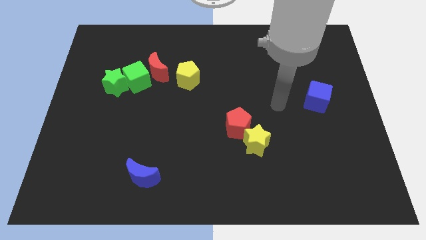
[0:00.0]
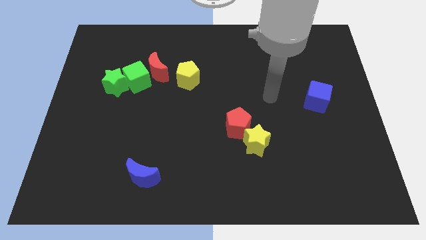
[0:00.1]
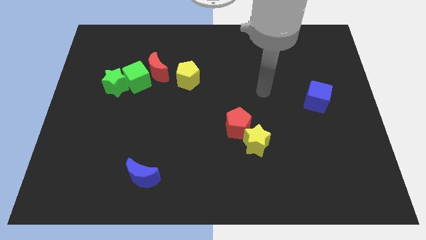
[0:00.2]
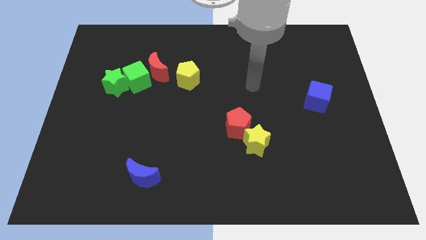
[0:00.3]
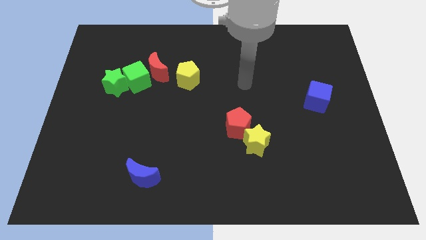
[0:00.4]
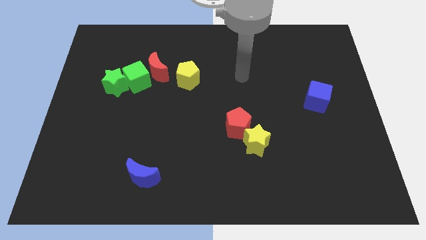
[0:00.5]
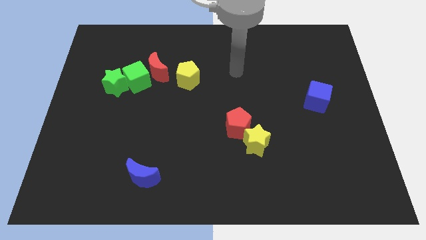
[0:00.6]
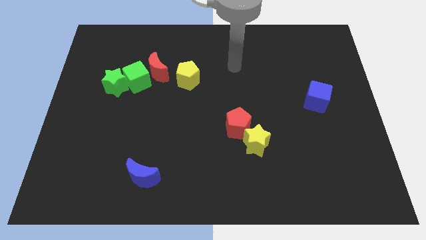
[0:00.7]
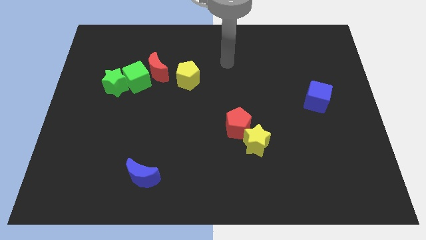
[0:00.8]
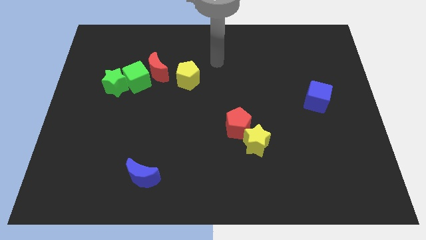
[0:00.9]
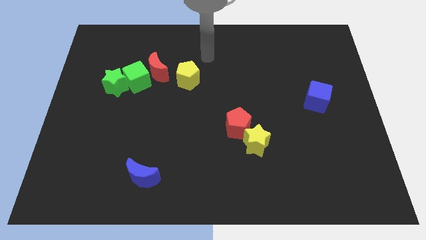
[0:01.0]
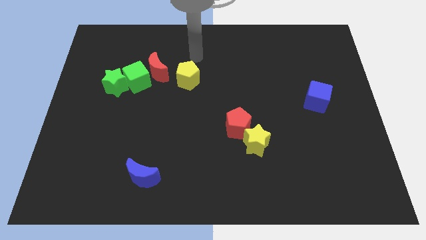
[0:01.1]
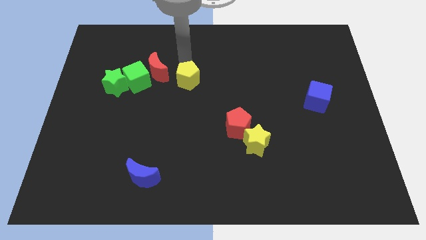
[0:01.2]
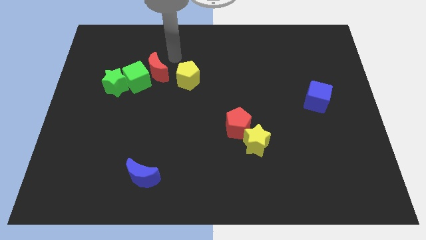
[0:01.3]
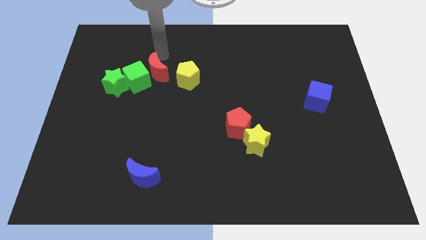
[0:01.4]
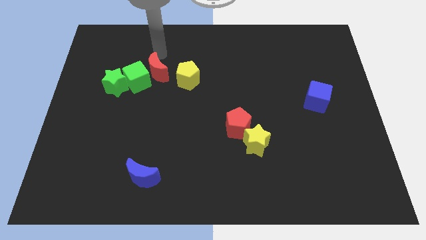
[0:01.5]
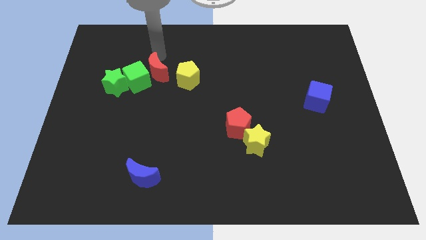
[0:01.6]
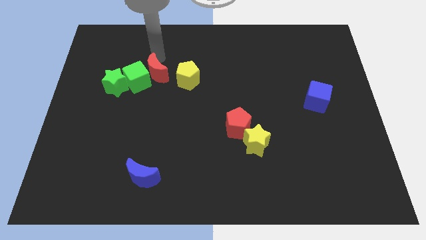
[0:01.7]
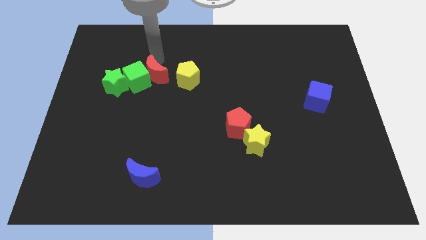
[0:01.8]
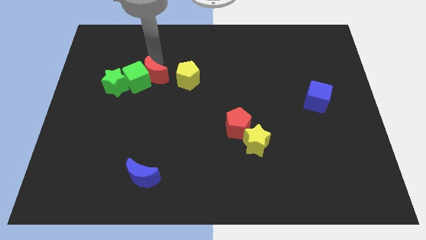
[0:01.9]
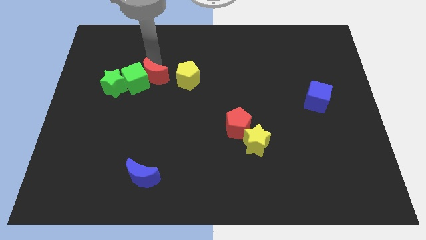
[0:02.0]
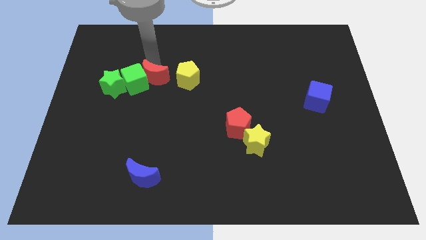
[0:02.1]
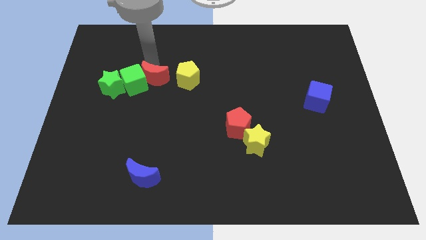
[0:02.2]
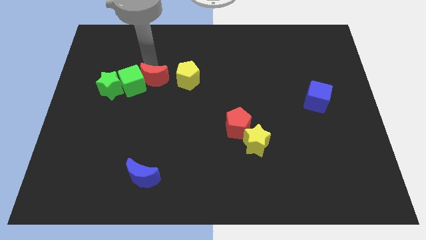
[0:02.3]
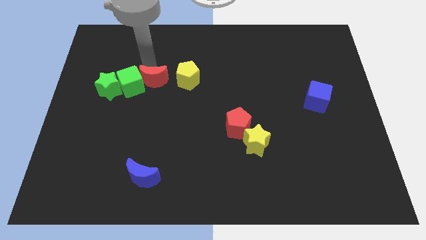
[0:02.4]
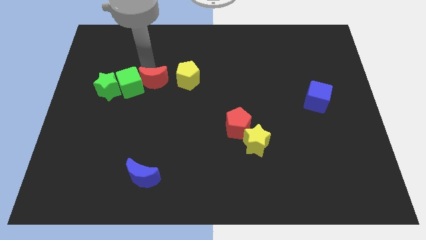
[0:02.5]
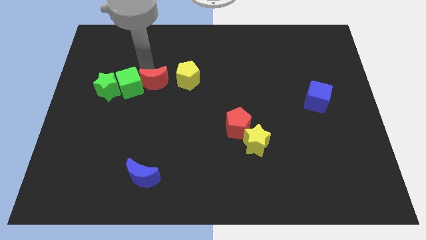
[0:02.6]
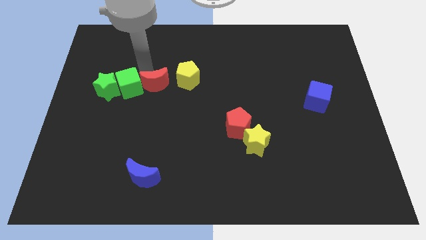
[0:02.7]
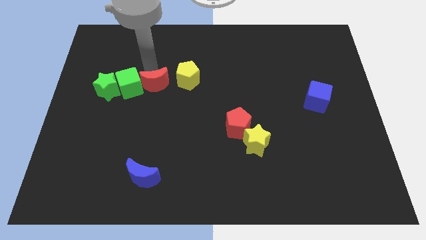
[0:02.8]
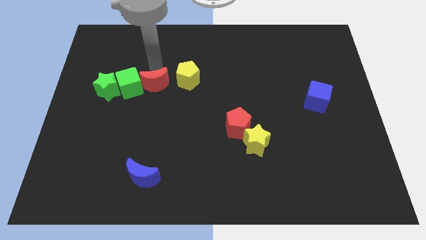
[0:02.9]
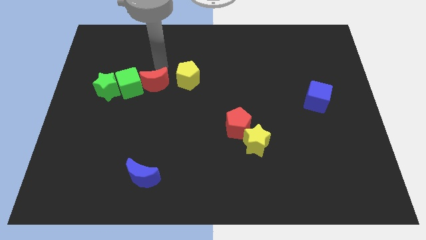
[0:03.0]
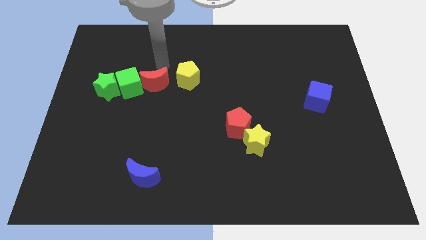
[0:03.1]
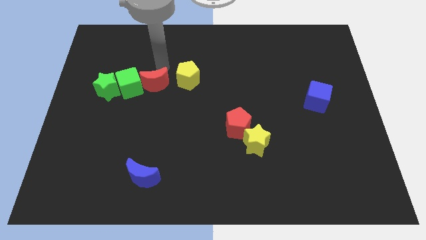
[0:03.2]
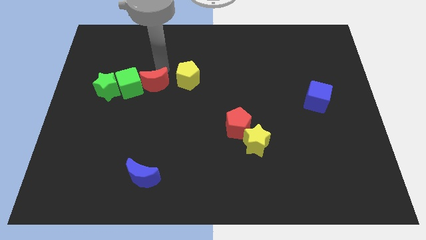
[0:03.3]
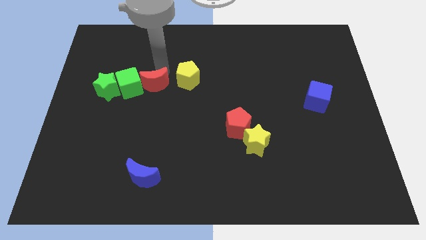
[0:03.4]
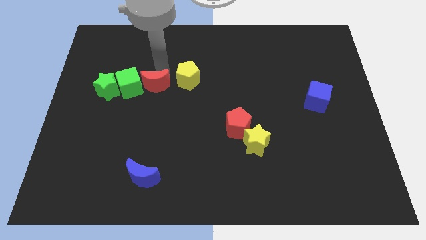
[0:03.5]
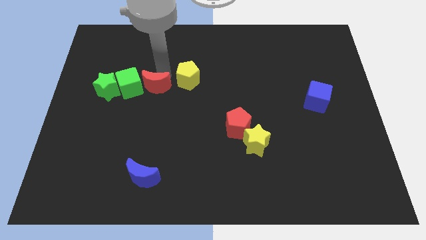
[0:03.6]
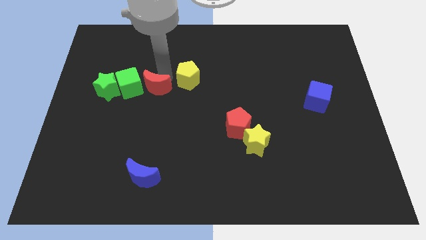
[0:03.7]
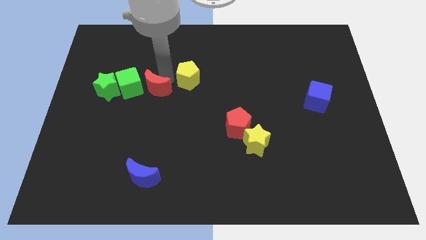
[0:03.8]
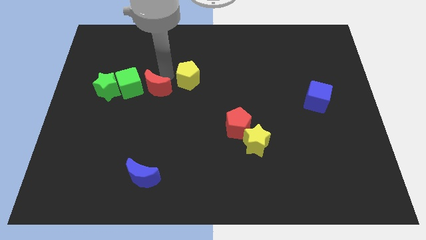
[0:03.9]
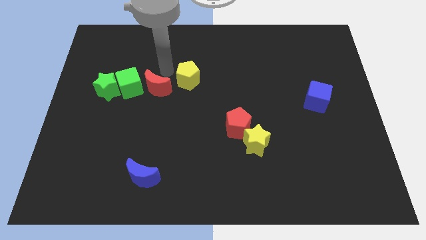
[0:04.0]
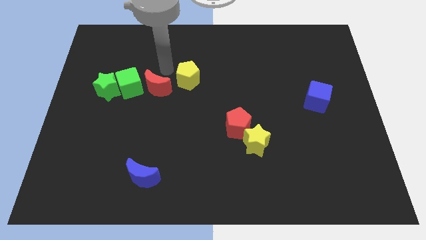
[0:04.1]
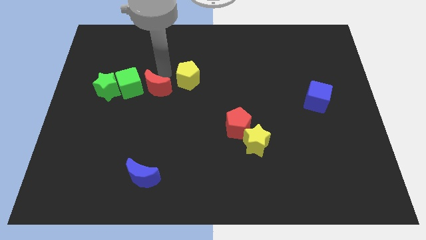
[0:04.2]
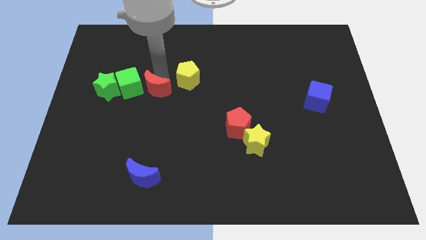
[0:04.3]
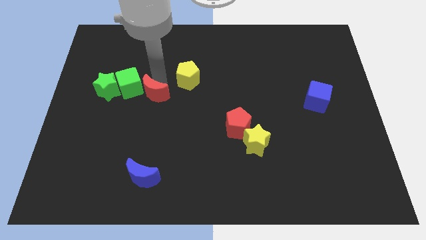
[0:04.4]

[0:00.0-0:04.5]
slide the red moon downwards somewhat

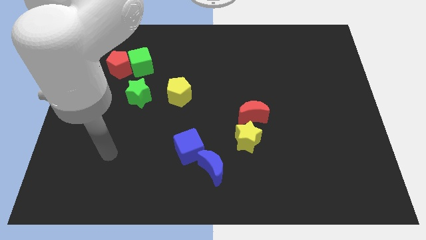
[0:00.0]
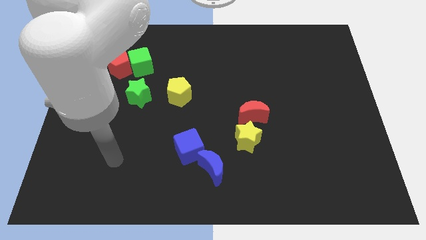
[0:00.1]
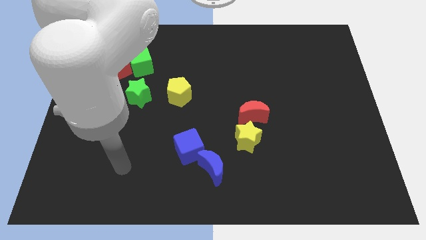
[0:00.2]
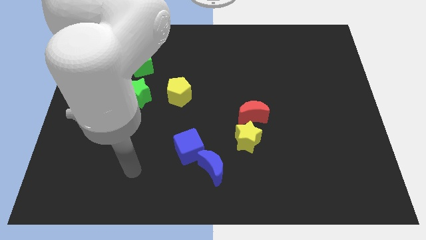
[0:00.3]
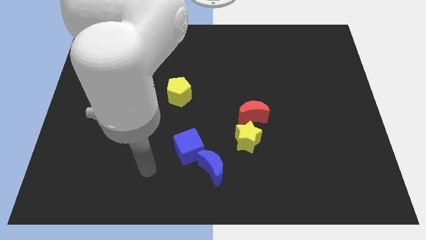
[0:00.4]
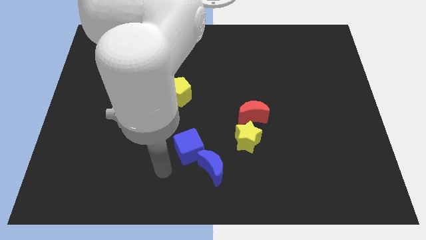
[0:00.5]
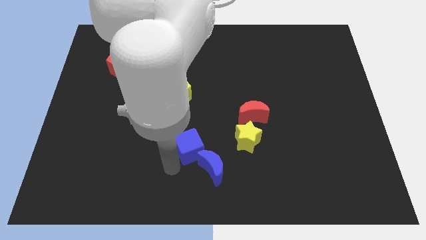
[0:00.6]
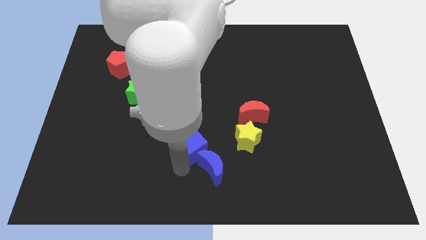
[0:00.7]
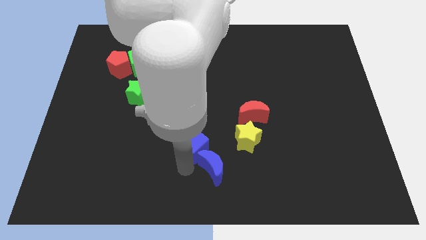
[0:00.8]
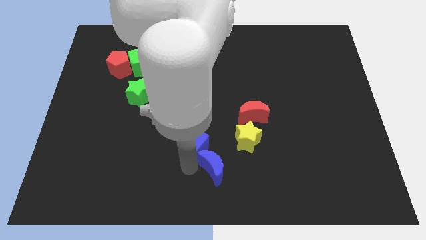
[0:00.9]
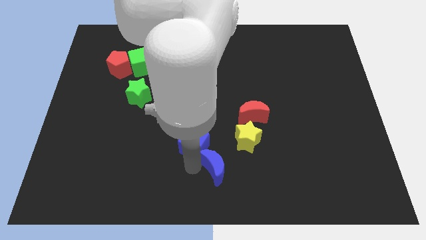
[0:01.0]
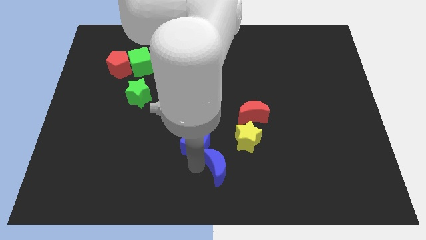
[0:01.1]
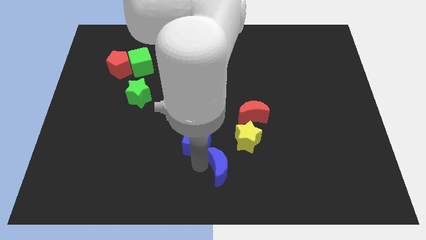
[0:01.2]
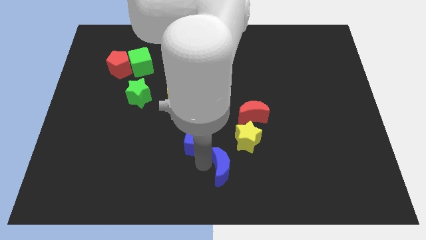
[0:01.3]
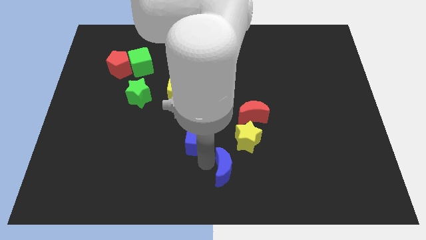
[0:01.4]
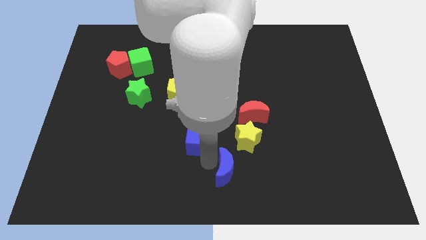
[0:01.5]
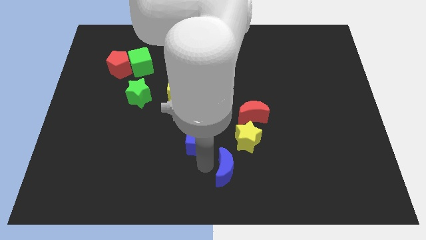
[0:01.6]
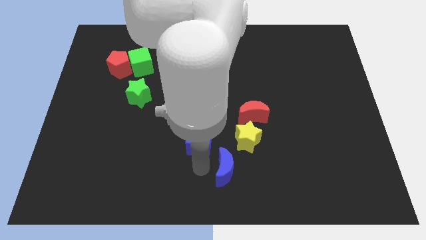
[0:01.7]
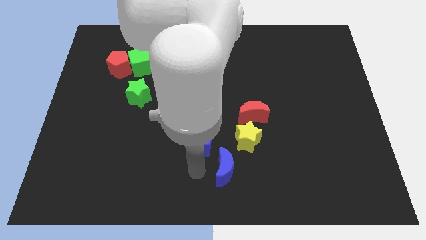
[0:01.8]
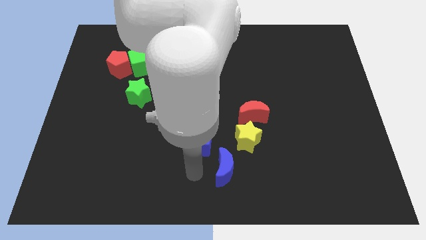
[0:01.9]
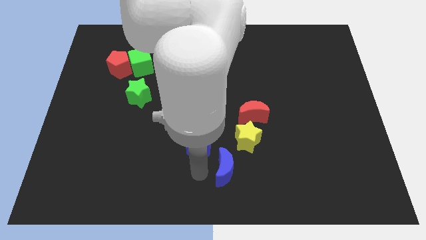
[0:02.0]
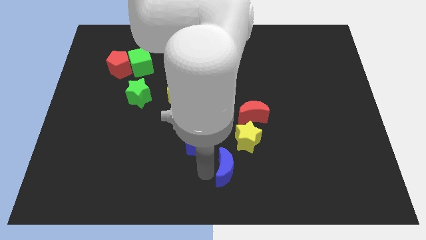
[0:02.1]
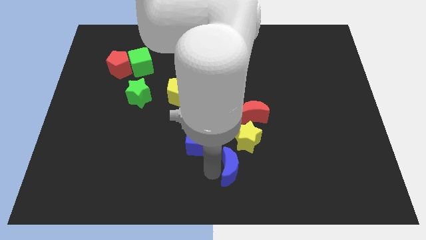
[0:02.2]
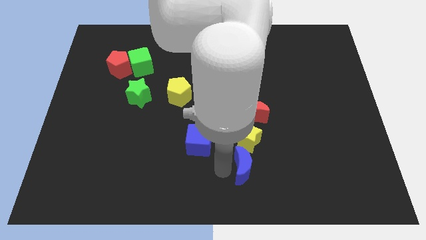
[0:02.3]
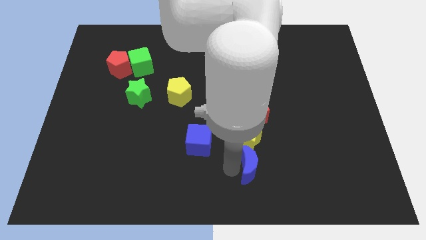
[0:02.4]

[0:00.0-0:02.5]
slide the blue moon right a little

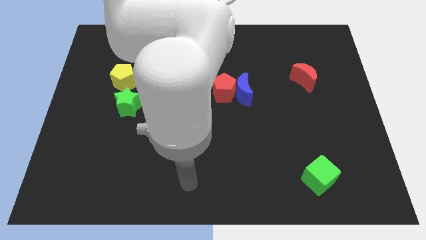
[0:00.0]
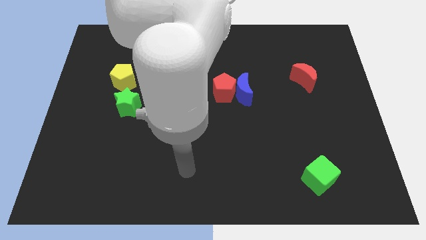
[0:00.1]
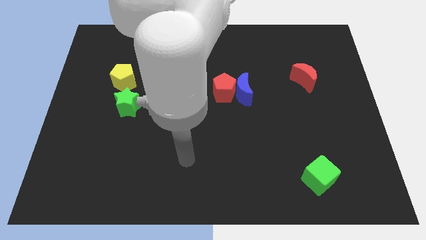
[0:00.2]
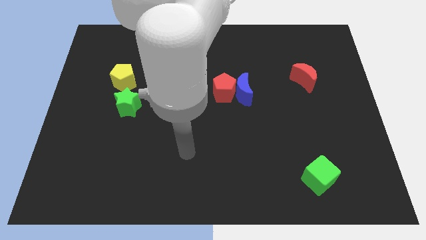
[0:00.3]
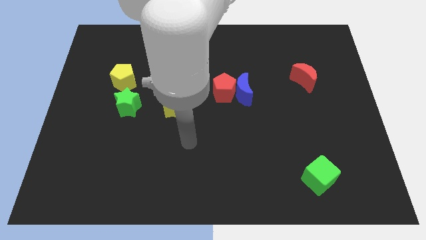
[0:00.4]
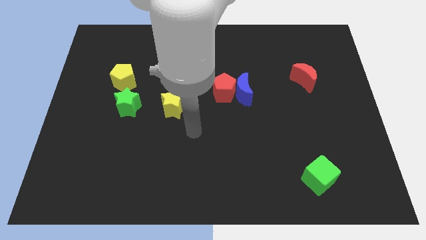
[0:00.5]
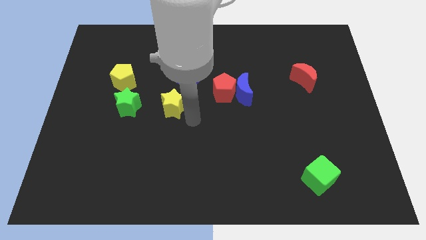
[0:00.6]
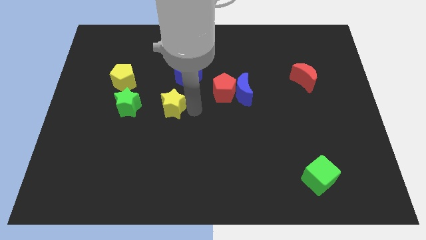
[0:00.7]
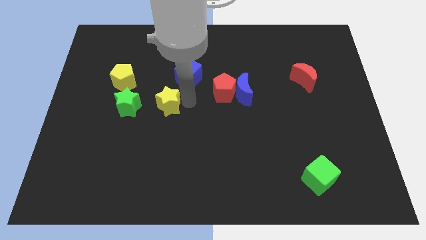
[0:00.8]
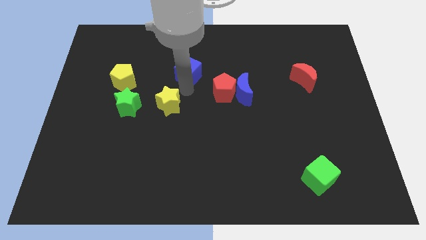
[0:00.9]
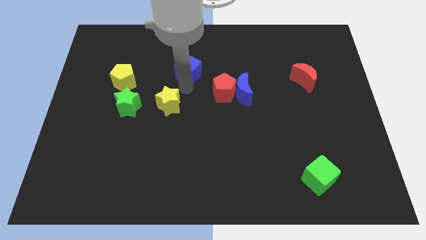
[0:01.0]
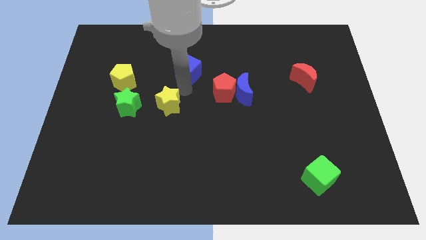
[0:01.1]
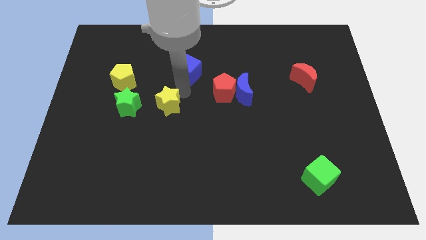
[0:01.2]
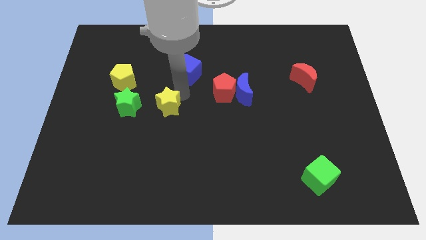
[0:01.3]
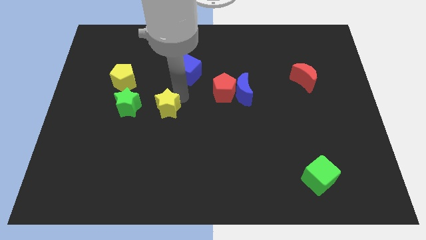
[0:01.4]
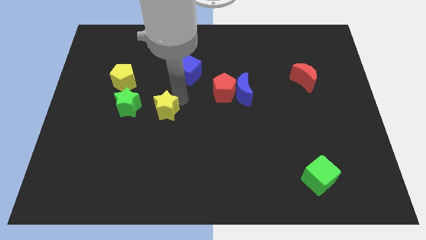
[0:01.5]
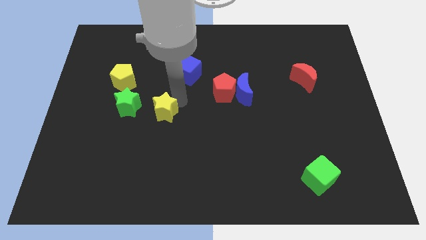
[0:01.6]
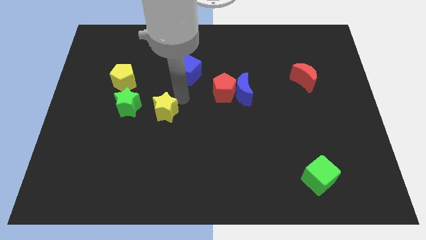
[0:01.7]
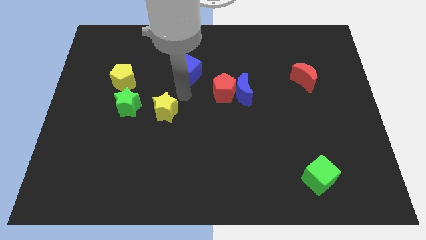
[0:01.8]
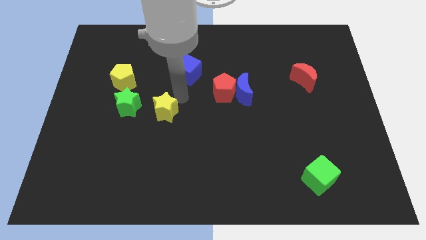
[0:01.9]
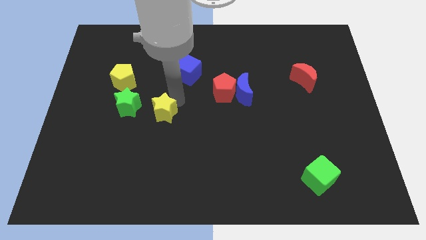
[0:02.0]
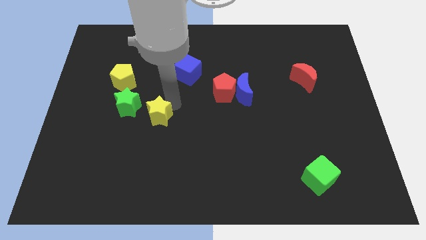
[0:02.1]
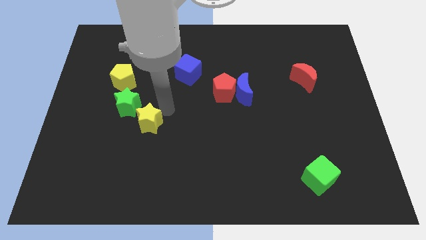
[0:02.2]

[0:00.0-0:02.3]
move the yellow star a little down and then to the left
